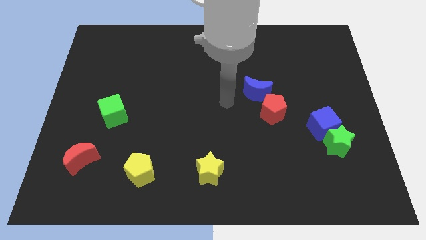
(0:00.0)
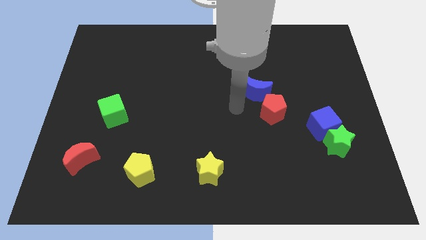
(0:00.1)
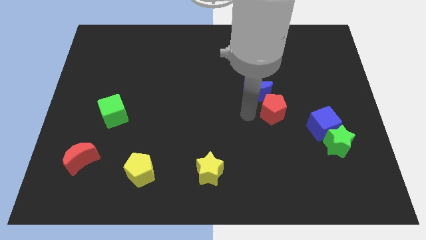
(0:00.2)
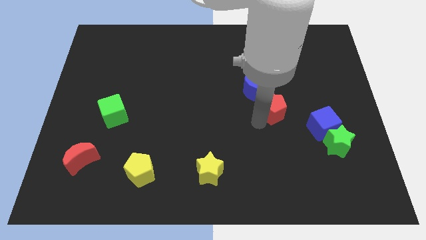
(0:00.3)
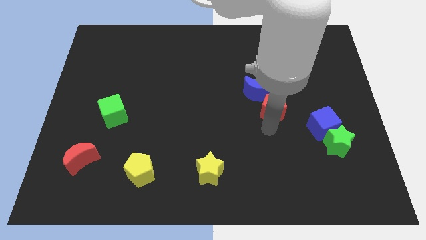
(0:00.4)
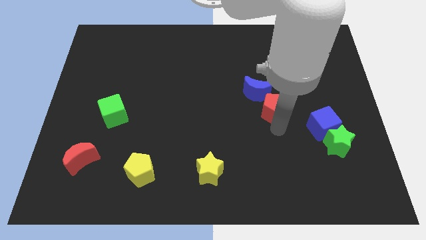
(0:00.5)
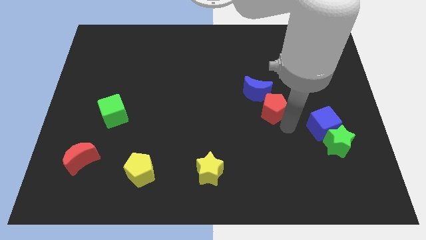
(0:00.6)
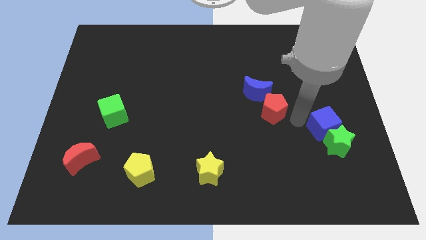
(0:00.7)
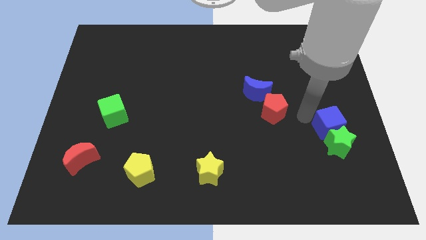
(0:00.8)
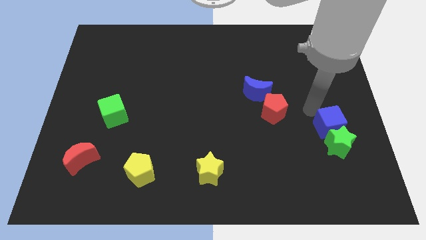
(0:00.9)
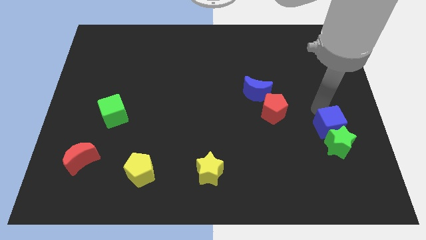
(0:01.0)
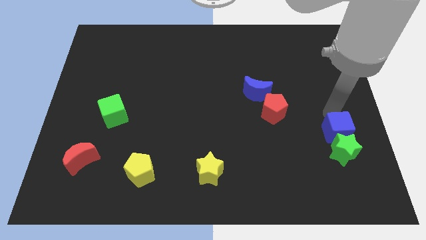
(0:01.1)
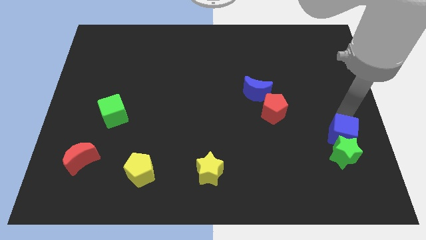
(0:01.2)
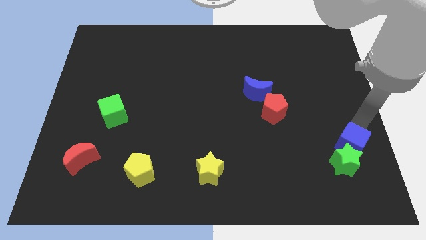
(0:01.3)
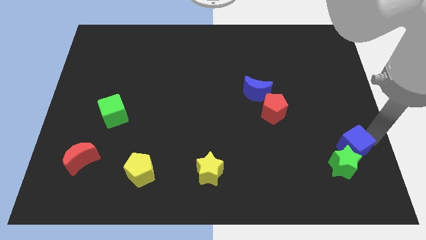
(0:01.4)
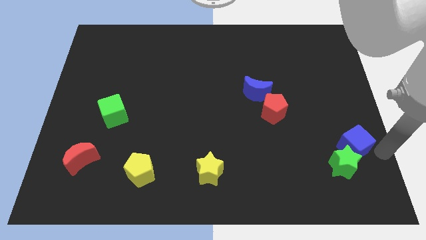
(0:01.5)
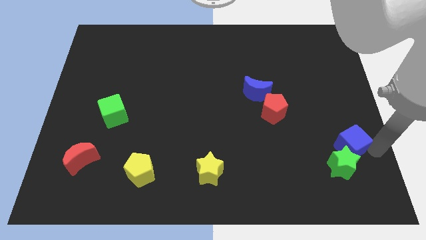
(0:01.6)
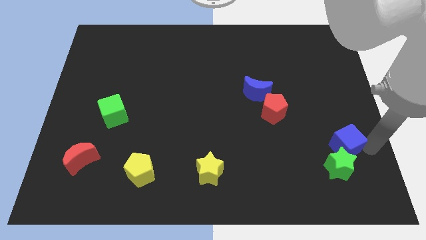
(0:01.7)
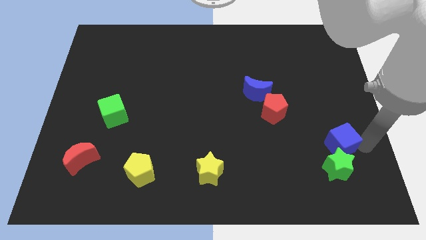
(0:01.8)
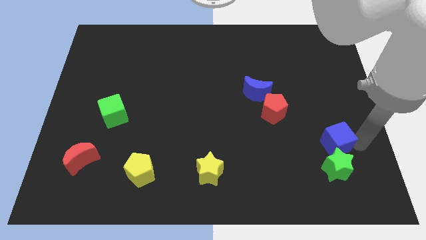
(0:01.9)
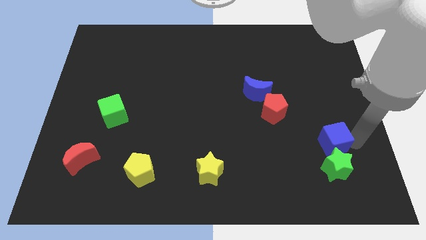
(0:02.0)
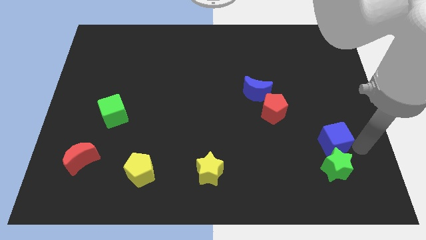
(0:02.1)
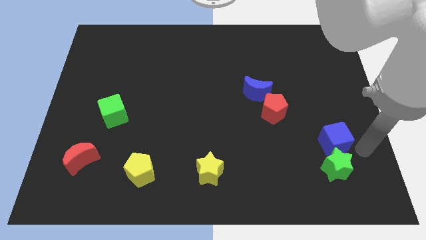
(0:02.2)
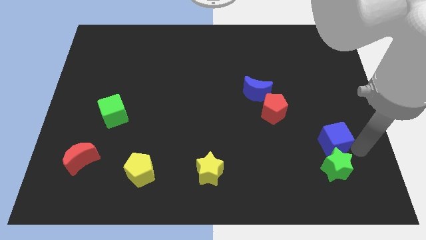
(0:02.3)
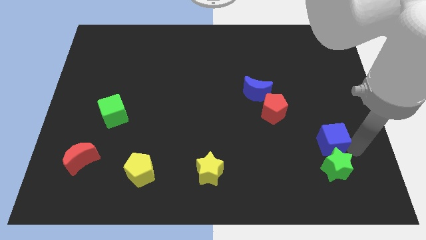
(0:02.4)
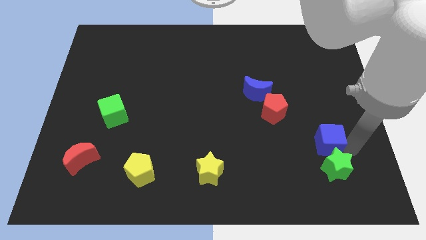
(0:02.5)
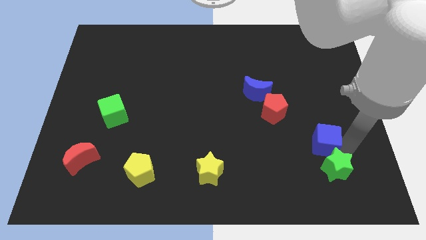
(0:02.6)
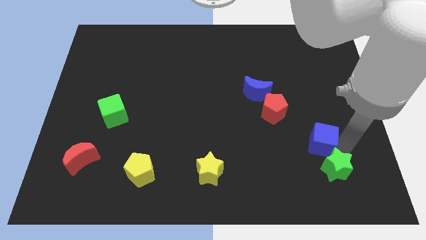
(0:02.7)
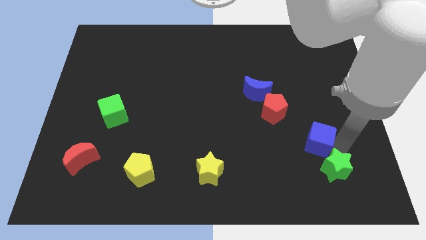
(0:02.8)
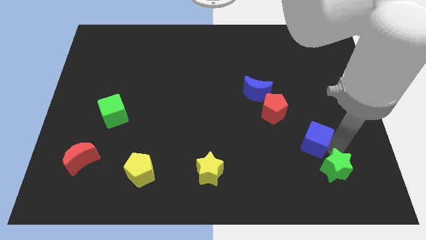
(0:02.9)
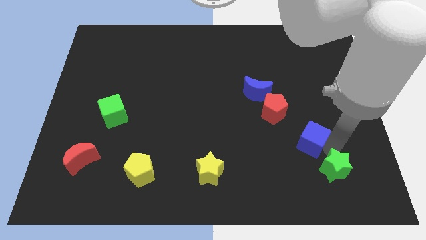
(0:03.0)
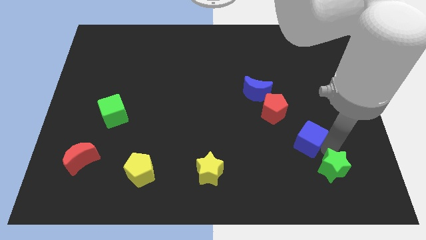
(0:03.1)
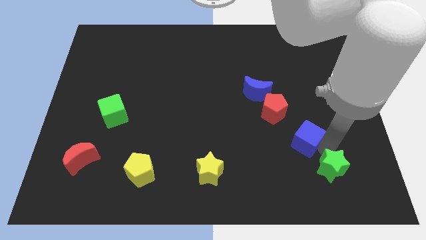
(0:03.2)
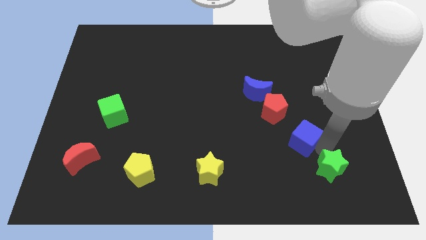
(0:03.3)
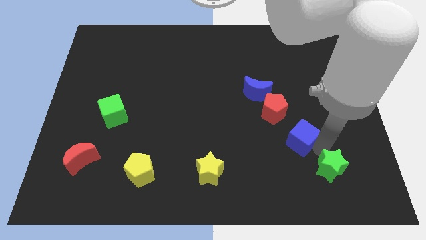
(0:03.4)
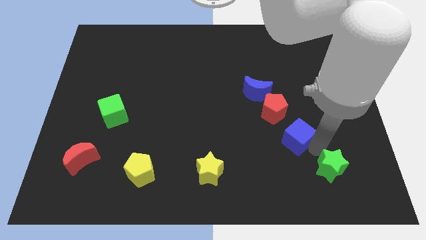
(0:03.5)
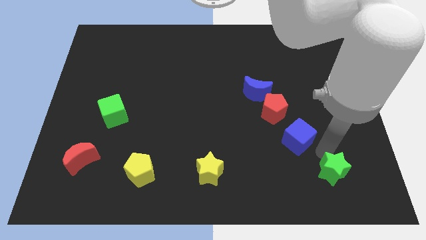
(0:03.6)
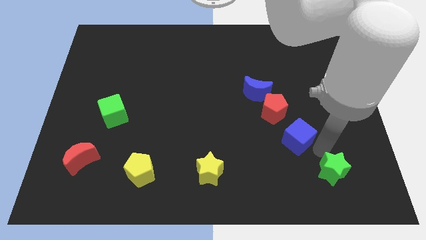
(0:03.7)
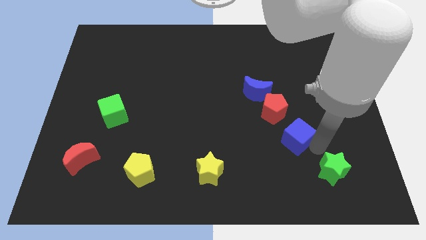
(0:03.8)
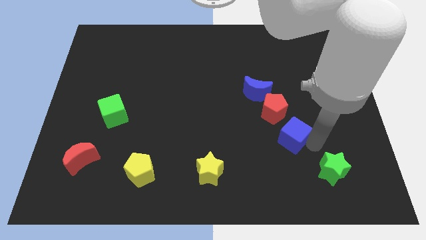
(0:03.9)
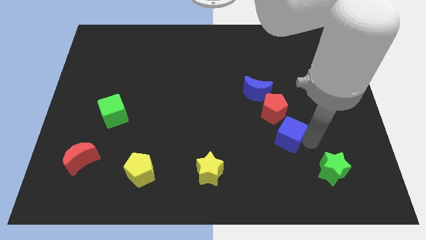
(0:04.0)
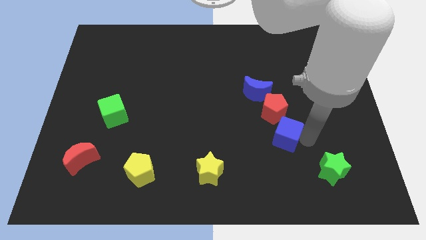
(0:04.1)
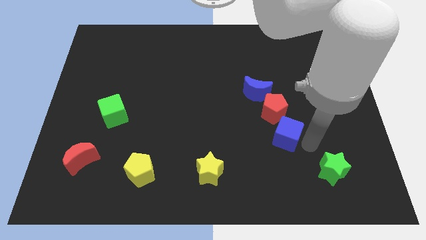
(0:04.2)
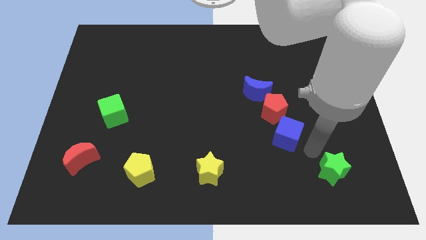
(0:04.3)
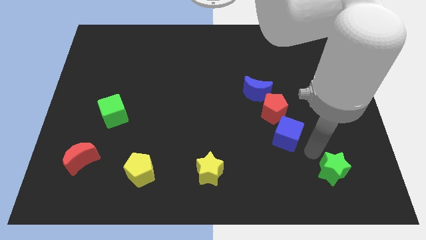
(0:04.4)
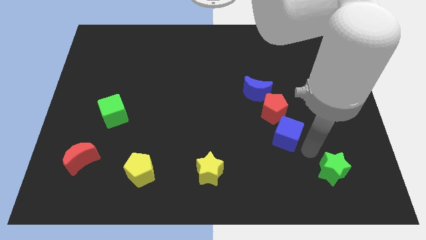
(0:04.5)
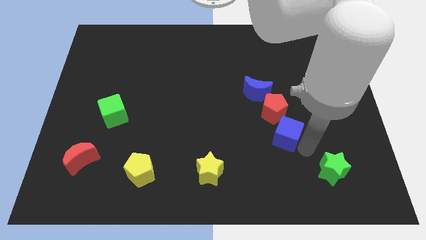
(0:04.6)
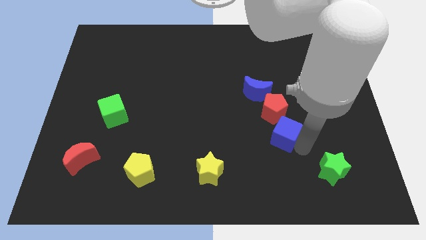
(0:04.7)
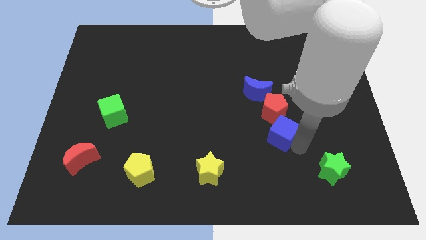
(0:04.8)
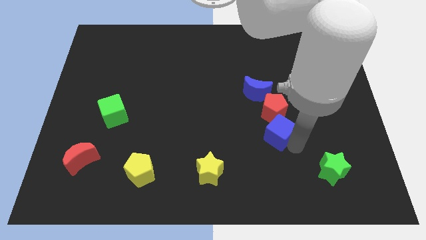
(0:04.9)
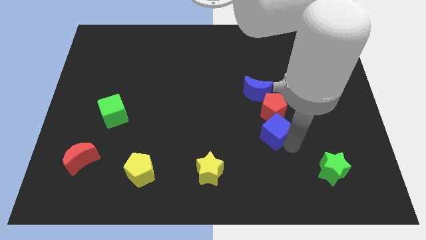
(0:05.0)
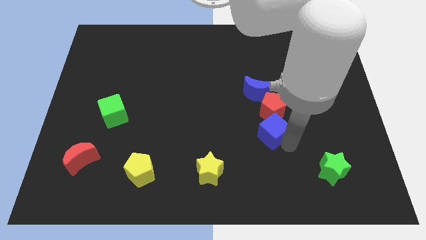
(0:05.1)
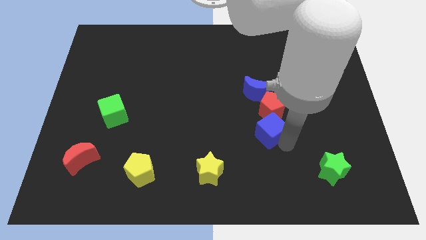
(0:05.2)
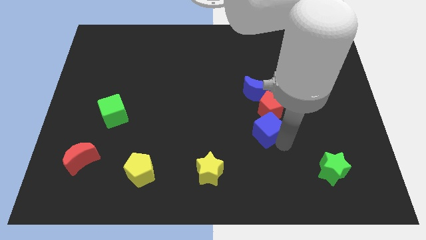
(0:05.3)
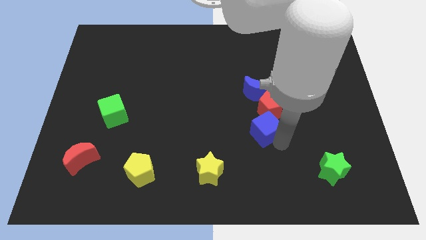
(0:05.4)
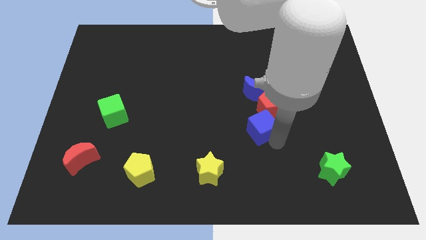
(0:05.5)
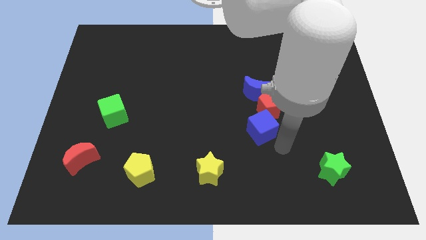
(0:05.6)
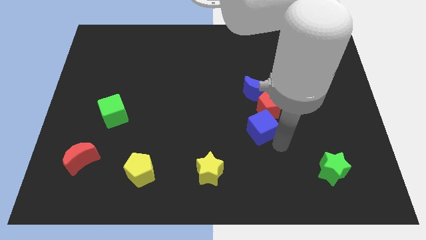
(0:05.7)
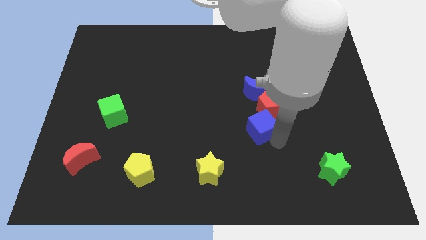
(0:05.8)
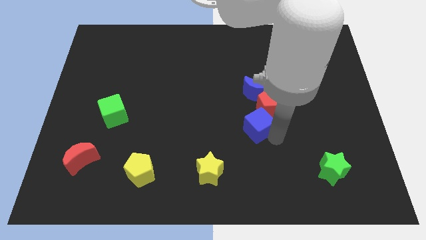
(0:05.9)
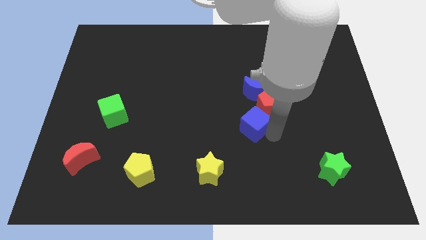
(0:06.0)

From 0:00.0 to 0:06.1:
put the blue cube to the middle of the board
